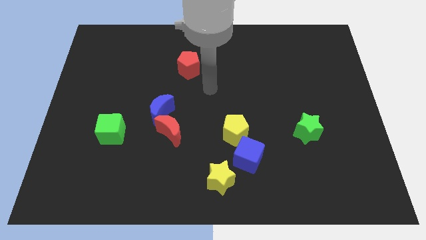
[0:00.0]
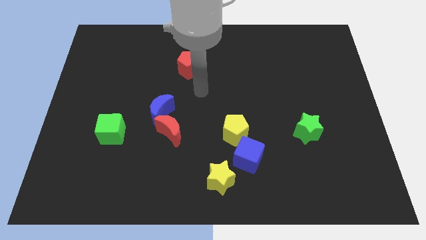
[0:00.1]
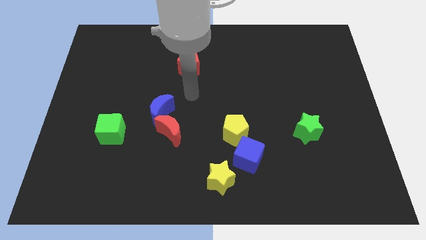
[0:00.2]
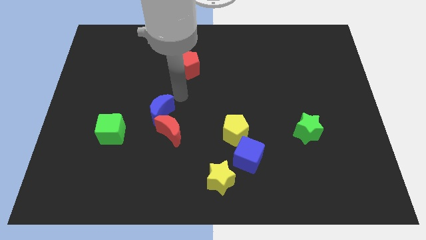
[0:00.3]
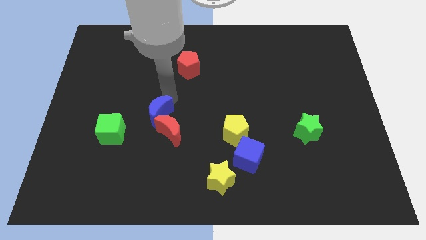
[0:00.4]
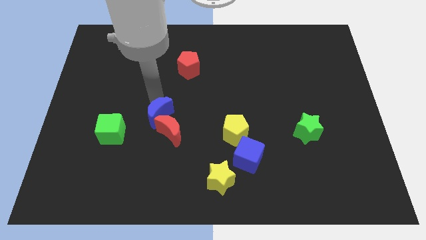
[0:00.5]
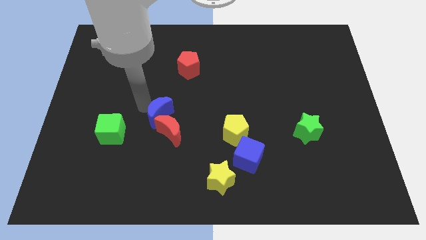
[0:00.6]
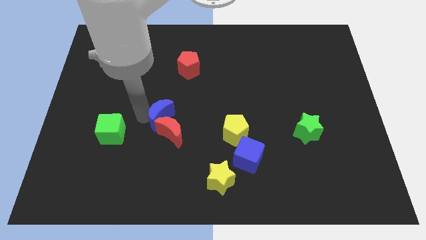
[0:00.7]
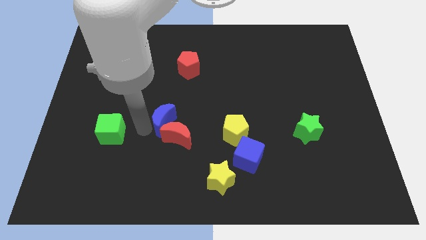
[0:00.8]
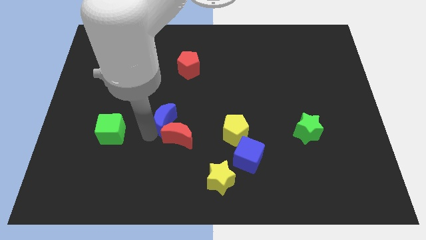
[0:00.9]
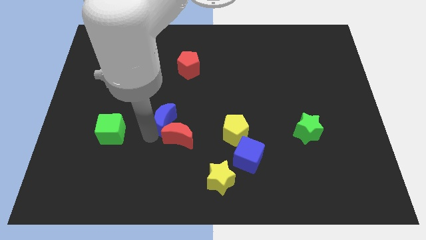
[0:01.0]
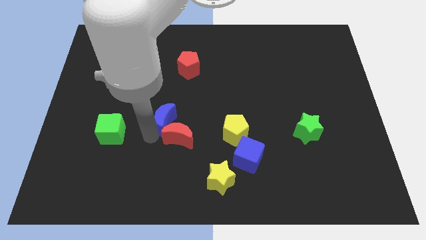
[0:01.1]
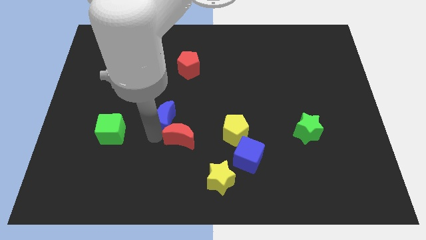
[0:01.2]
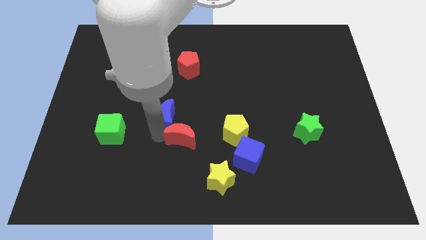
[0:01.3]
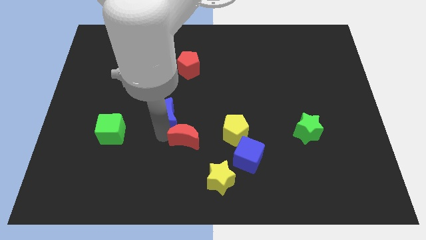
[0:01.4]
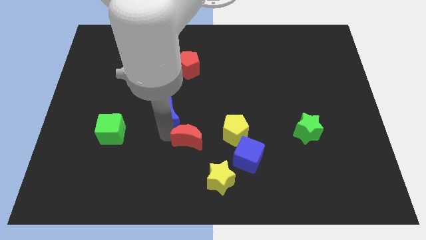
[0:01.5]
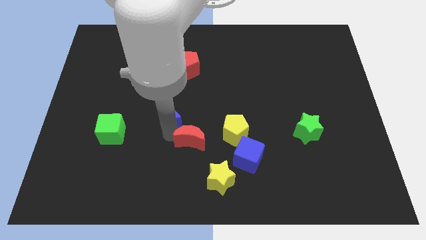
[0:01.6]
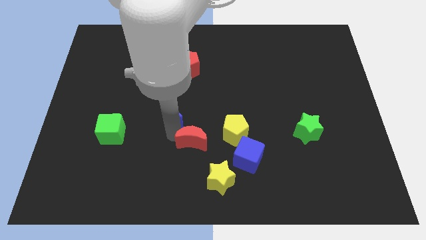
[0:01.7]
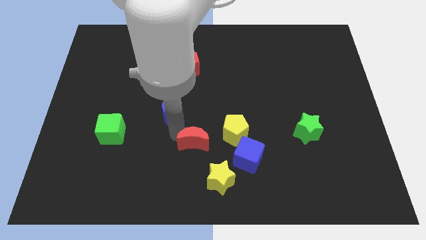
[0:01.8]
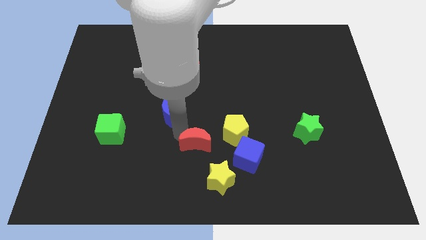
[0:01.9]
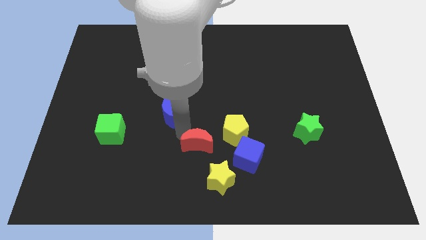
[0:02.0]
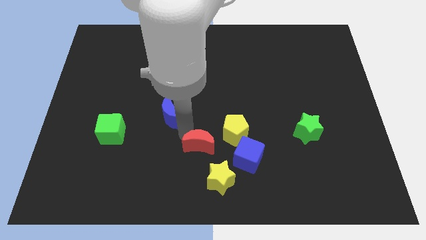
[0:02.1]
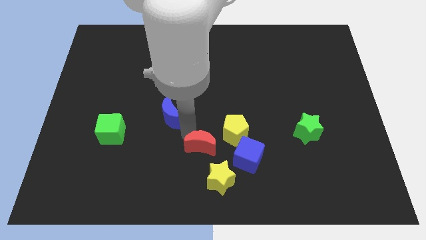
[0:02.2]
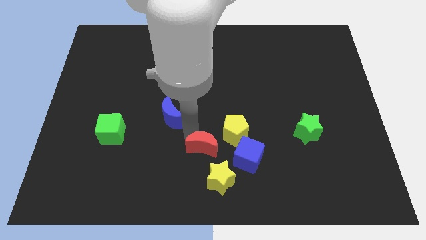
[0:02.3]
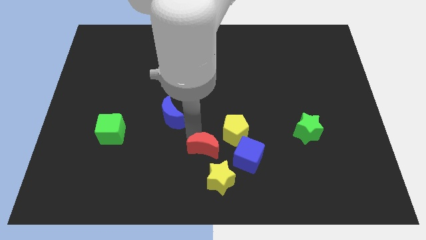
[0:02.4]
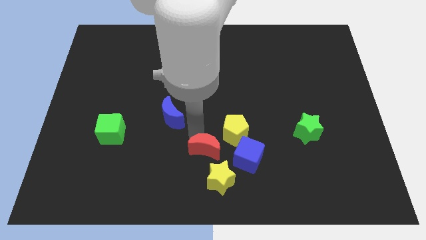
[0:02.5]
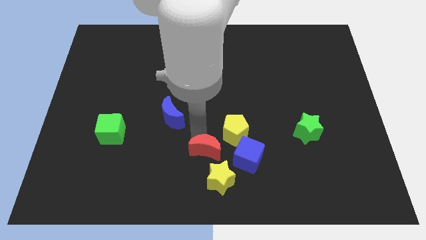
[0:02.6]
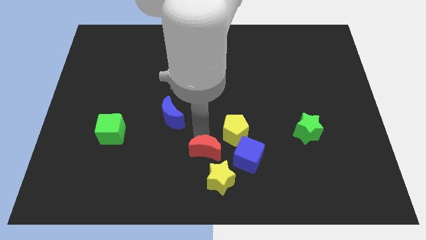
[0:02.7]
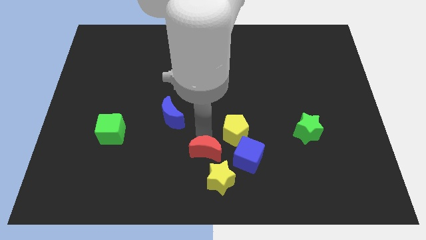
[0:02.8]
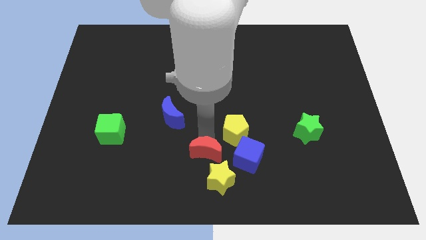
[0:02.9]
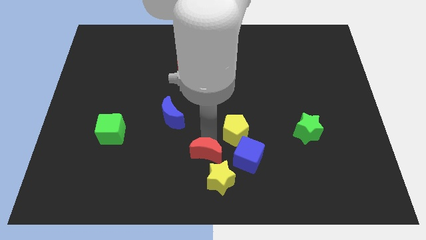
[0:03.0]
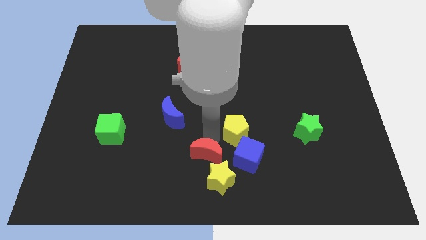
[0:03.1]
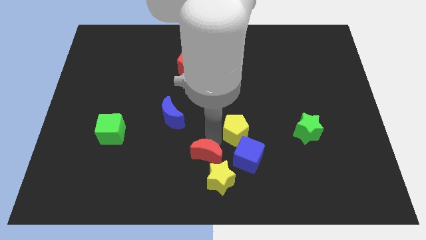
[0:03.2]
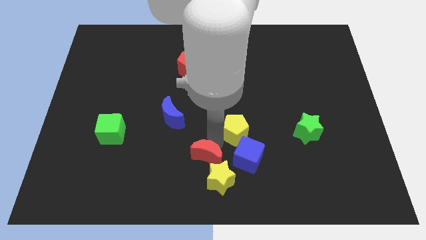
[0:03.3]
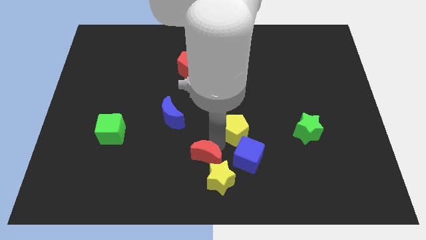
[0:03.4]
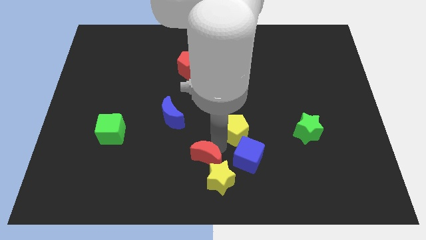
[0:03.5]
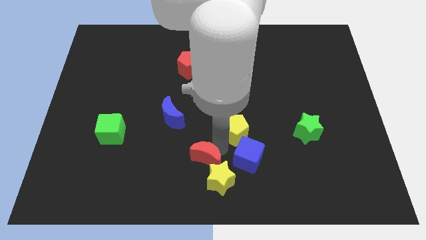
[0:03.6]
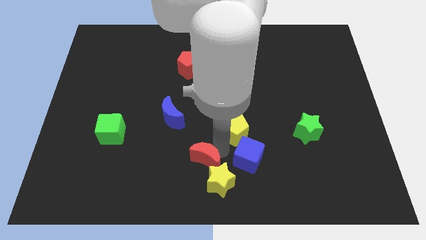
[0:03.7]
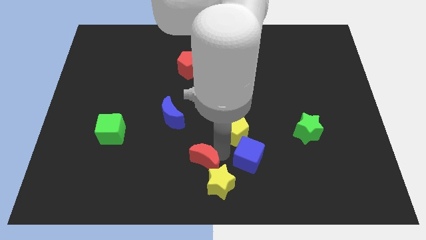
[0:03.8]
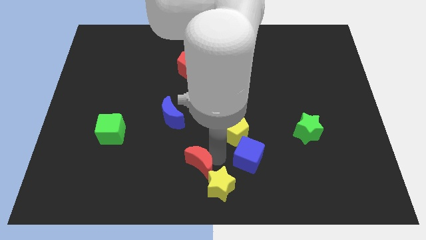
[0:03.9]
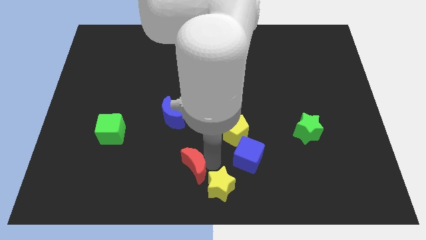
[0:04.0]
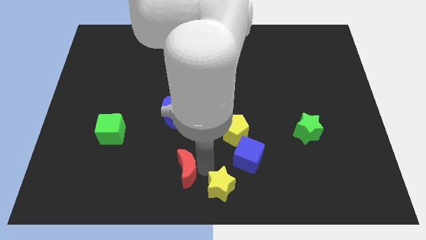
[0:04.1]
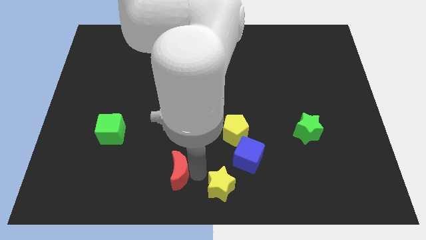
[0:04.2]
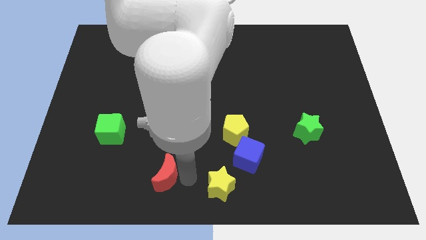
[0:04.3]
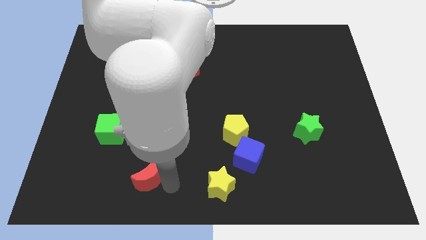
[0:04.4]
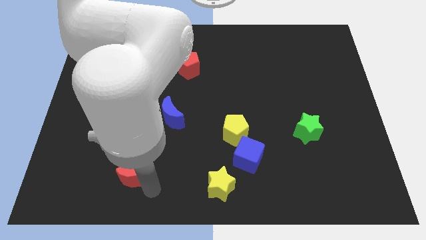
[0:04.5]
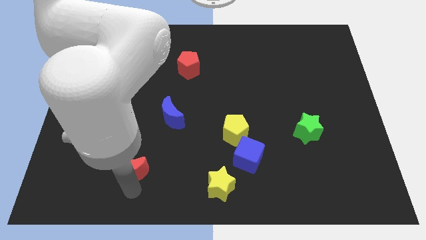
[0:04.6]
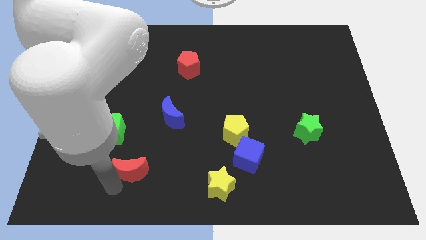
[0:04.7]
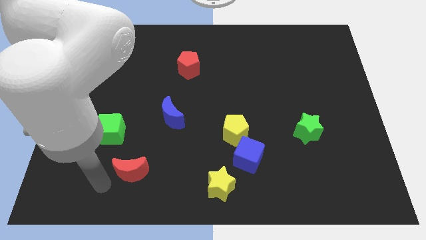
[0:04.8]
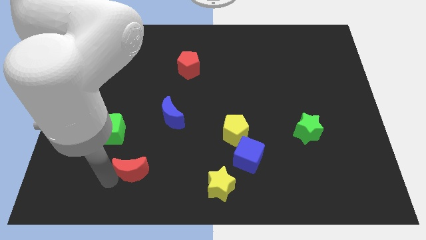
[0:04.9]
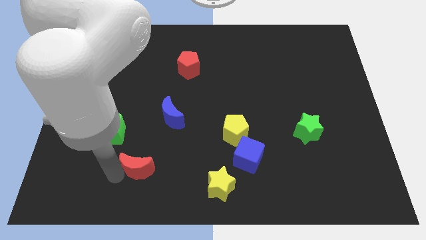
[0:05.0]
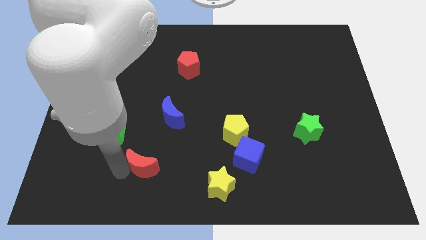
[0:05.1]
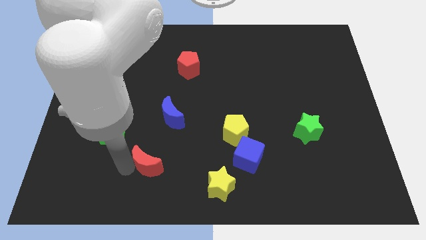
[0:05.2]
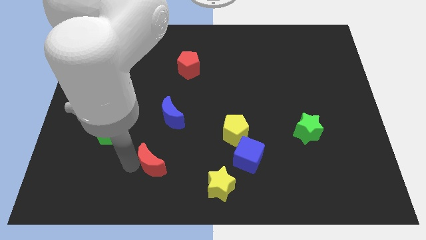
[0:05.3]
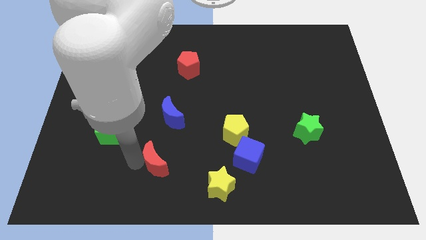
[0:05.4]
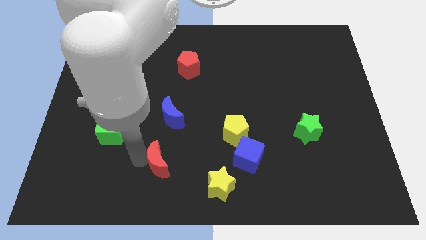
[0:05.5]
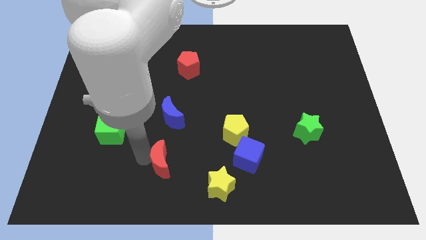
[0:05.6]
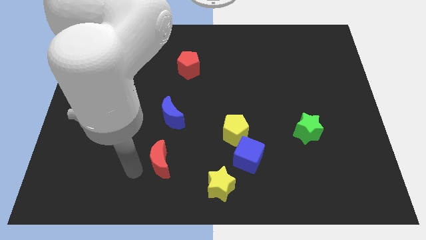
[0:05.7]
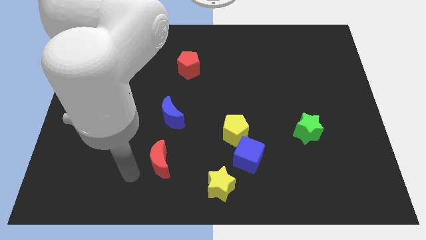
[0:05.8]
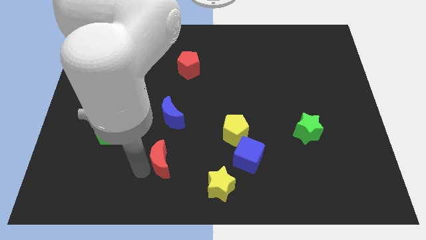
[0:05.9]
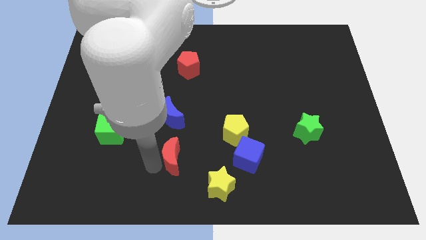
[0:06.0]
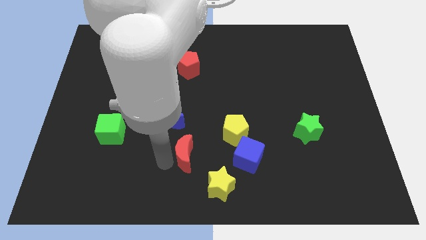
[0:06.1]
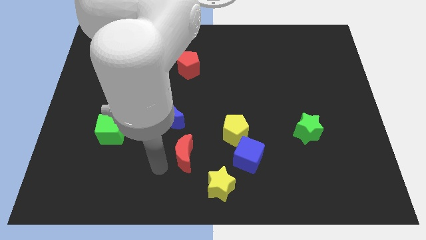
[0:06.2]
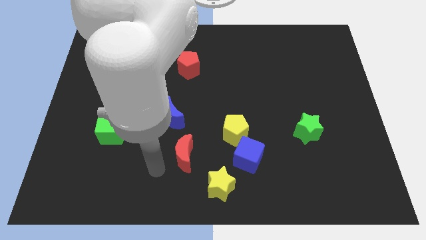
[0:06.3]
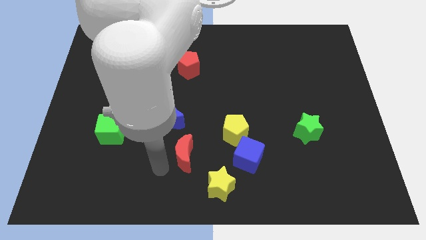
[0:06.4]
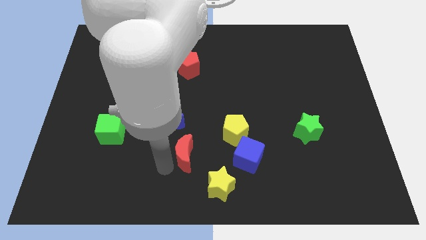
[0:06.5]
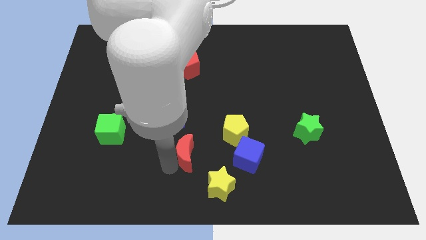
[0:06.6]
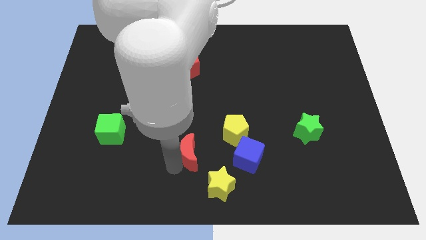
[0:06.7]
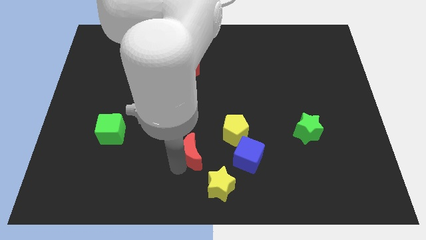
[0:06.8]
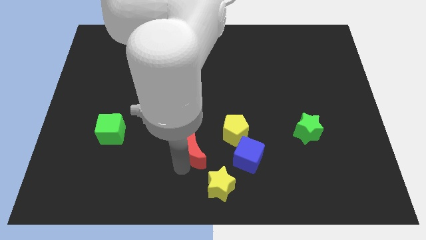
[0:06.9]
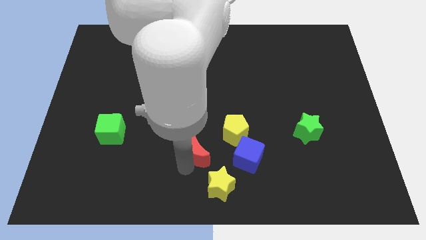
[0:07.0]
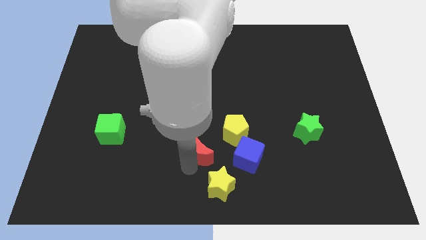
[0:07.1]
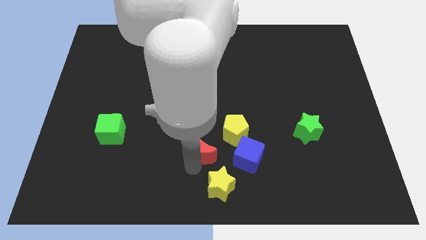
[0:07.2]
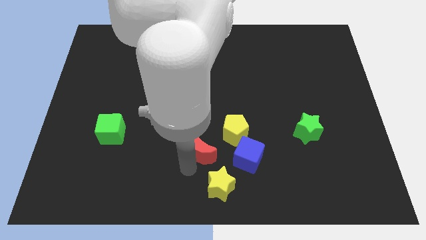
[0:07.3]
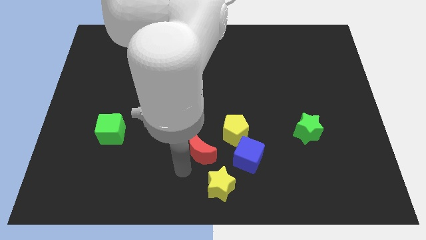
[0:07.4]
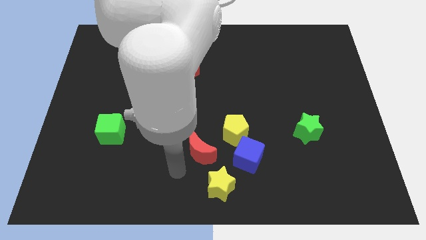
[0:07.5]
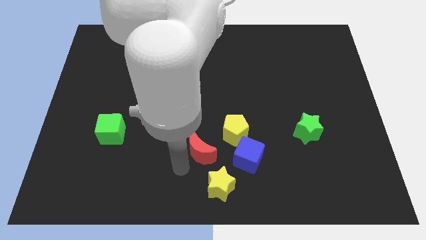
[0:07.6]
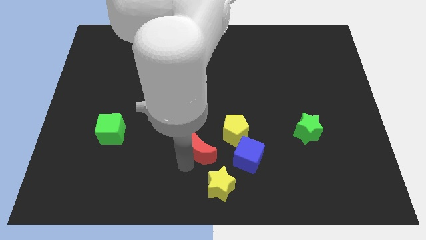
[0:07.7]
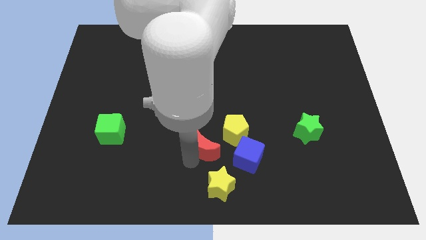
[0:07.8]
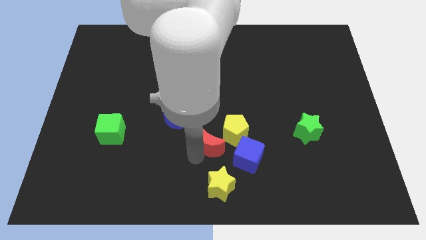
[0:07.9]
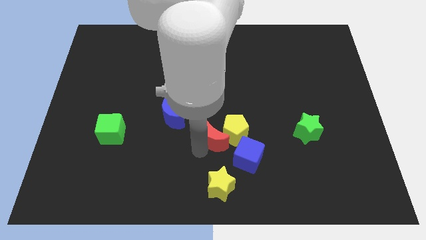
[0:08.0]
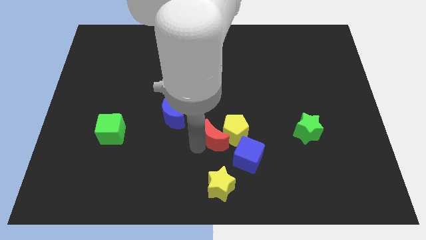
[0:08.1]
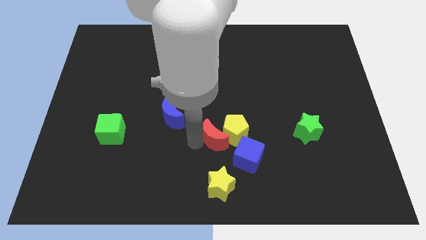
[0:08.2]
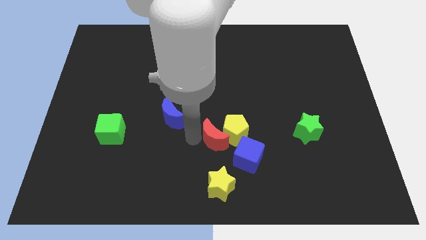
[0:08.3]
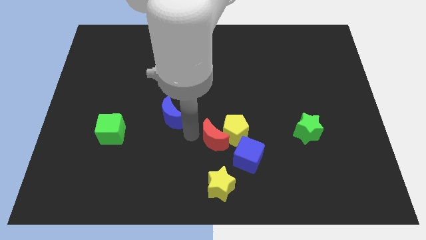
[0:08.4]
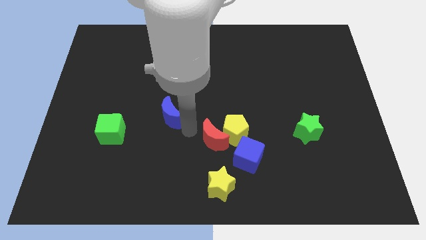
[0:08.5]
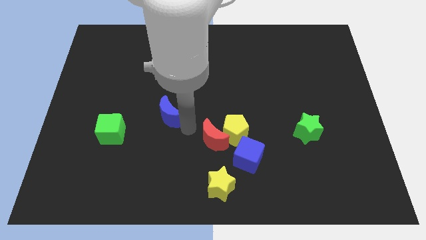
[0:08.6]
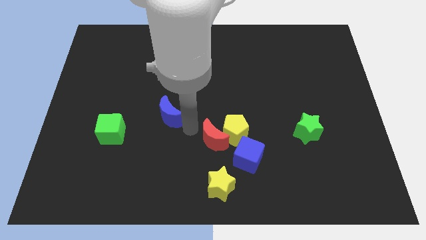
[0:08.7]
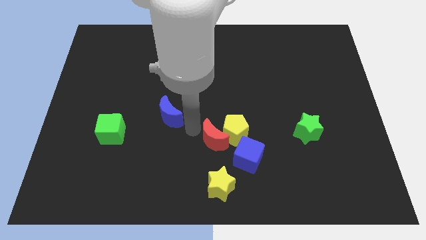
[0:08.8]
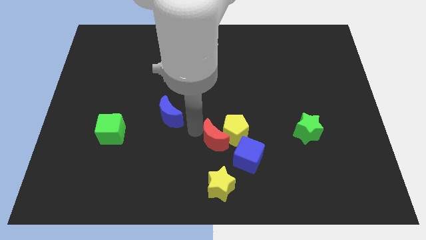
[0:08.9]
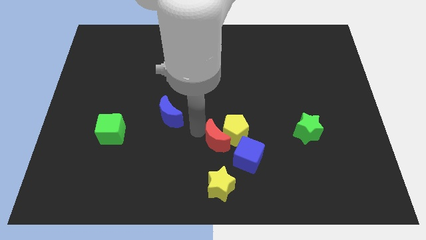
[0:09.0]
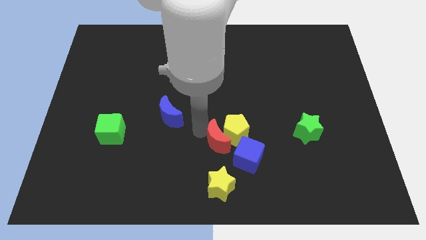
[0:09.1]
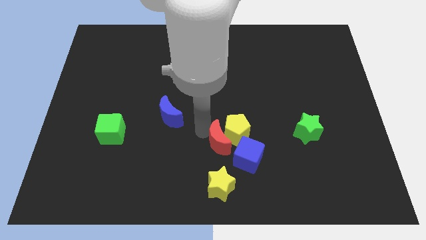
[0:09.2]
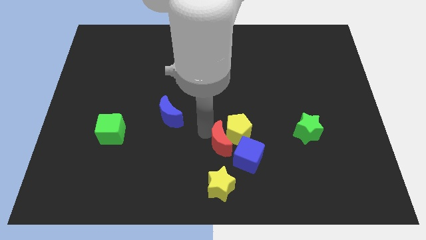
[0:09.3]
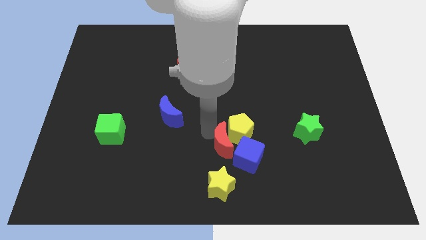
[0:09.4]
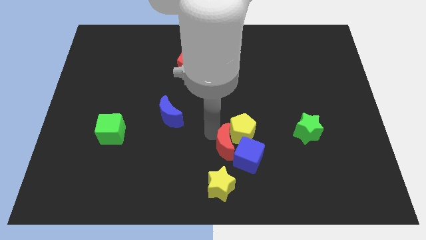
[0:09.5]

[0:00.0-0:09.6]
push the red moon to the blue cube
